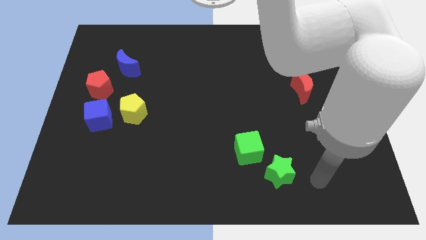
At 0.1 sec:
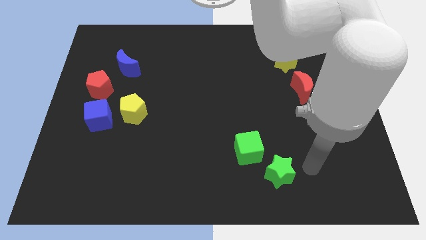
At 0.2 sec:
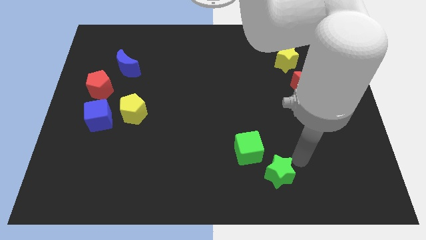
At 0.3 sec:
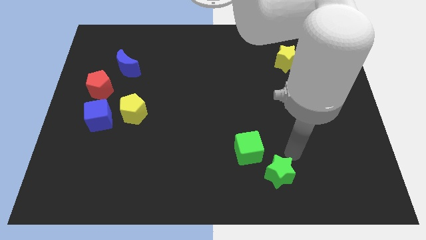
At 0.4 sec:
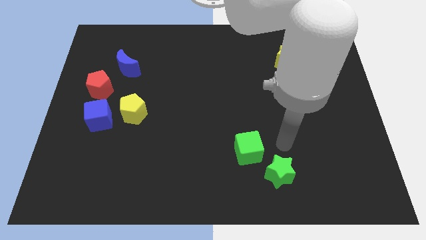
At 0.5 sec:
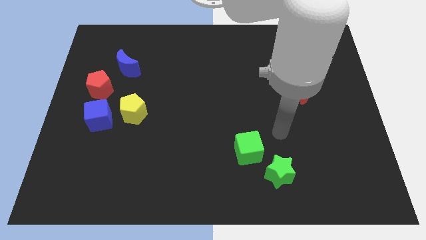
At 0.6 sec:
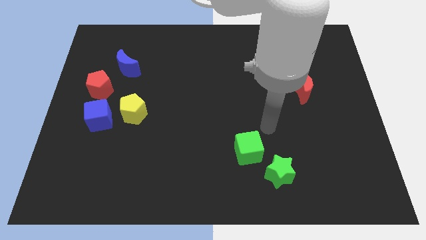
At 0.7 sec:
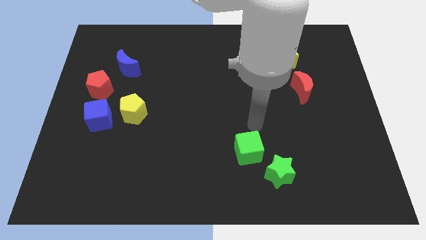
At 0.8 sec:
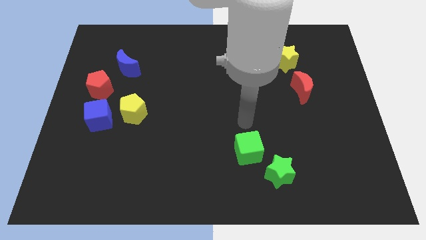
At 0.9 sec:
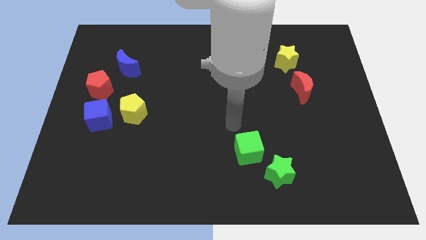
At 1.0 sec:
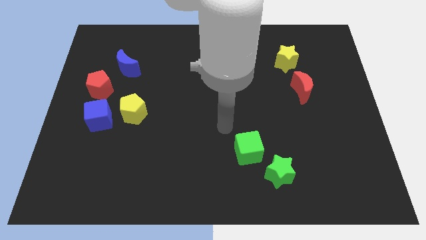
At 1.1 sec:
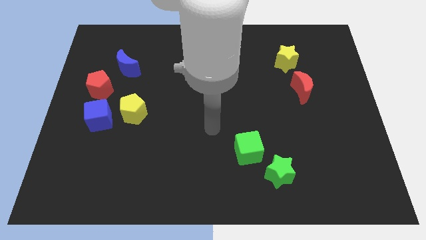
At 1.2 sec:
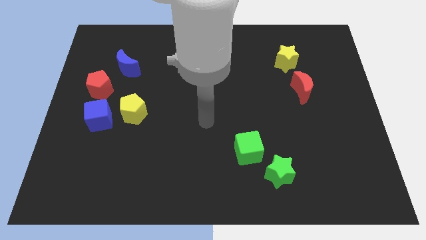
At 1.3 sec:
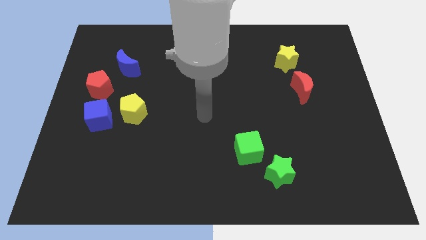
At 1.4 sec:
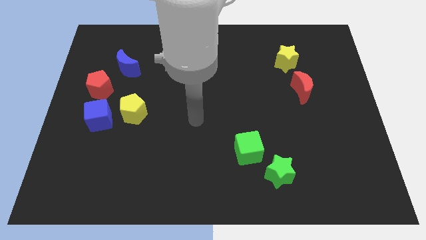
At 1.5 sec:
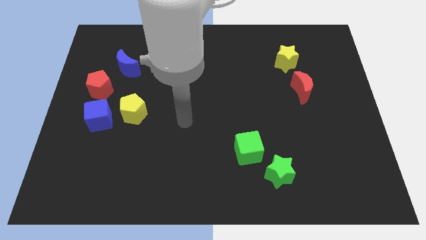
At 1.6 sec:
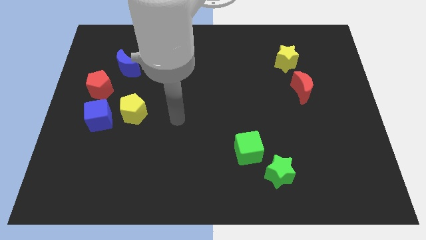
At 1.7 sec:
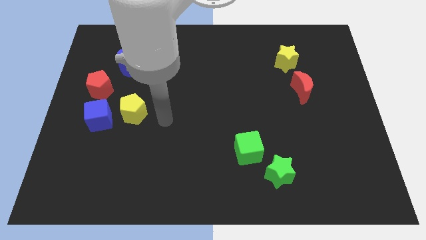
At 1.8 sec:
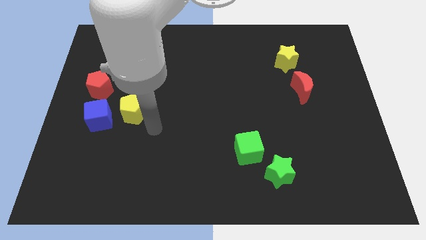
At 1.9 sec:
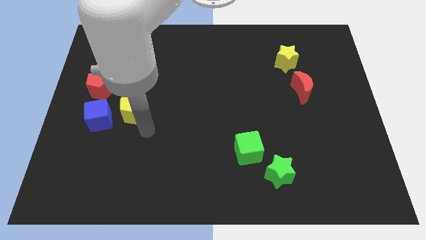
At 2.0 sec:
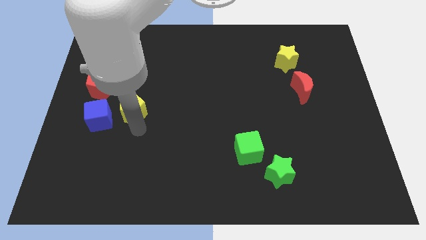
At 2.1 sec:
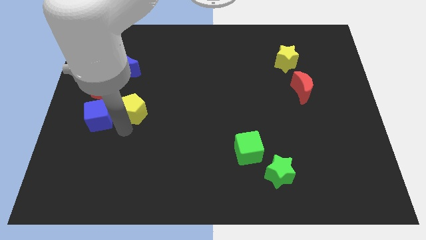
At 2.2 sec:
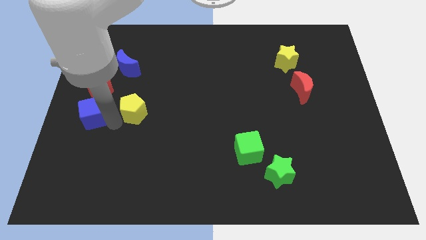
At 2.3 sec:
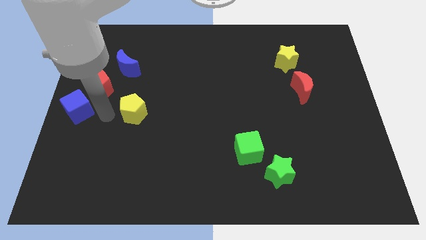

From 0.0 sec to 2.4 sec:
move the yellow pentagon away from the blue cube

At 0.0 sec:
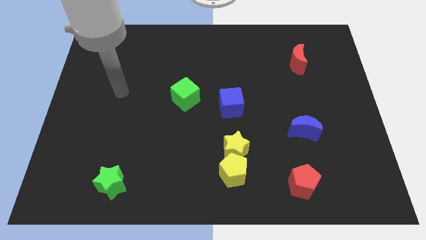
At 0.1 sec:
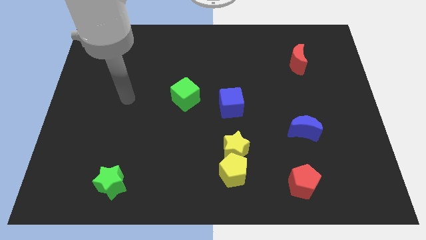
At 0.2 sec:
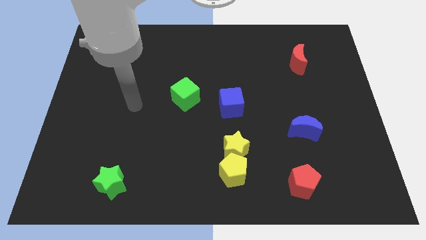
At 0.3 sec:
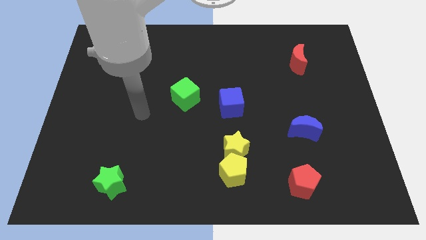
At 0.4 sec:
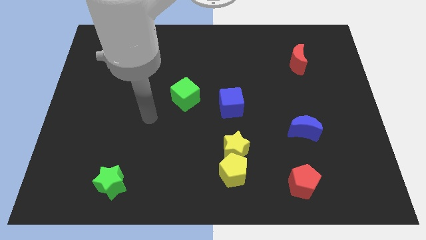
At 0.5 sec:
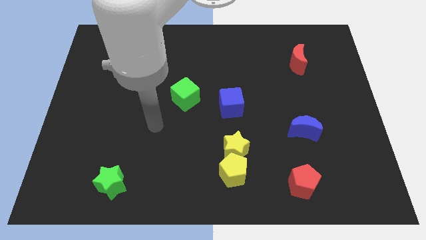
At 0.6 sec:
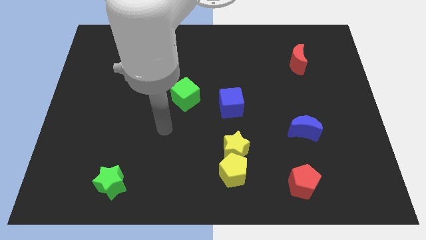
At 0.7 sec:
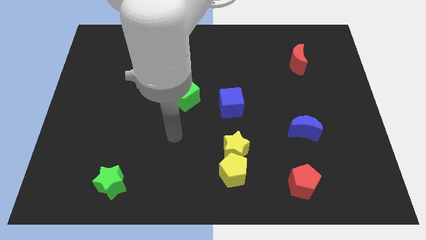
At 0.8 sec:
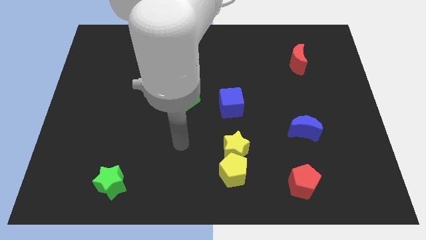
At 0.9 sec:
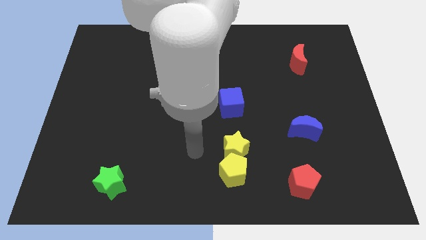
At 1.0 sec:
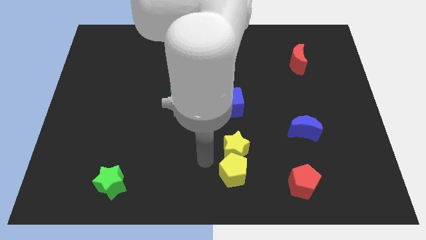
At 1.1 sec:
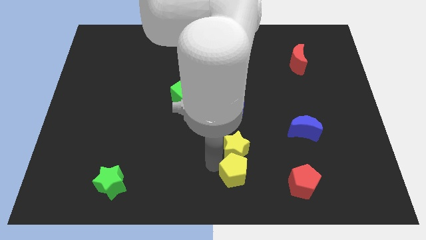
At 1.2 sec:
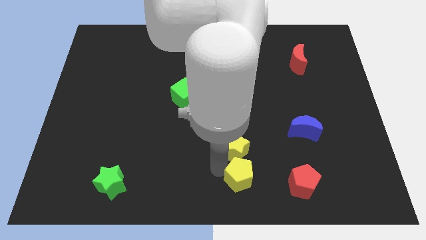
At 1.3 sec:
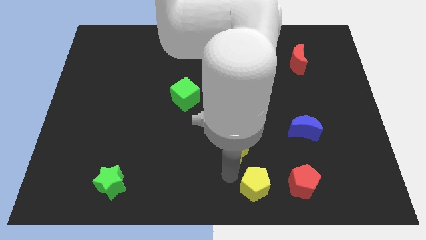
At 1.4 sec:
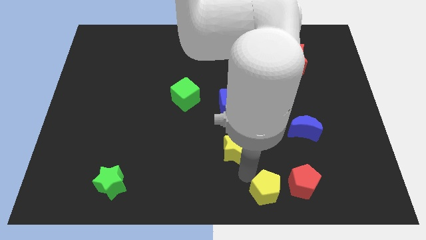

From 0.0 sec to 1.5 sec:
pull the yellow star apart from the yellow pentagon

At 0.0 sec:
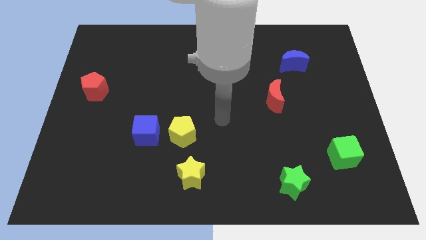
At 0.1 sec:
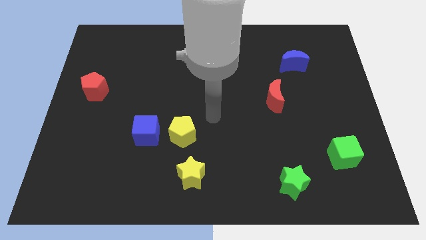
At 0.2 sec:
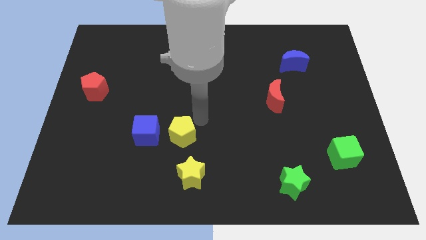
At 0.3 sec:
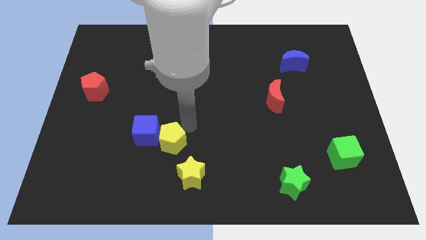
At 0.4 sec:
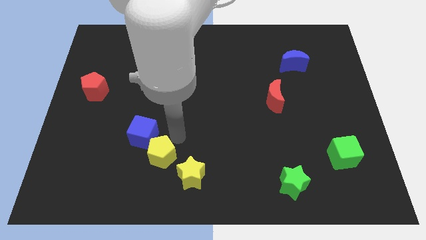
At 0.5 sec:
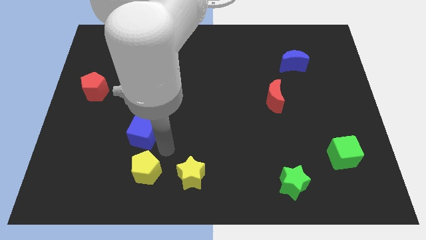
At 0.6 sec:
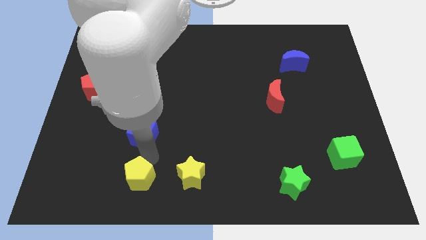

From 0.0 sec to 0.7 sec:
move the blue cube away from the yellow pentagon

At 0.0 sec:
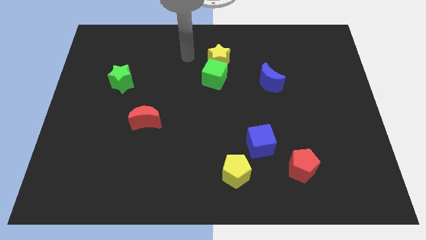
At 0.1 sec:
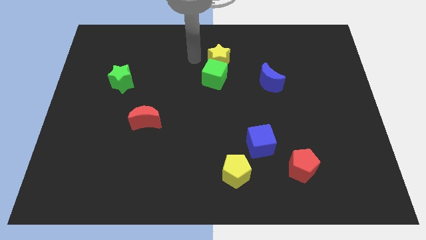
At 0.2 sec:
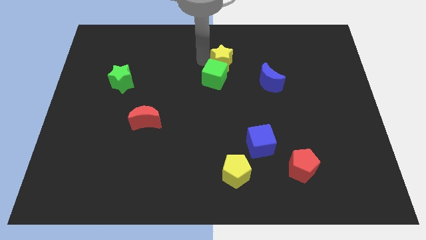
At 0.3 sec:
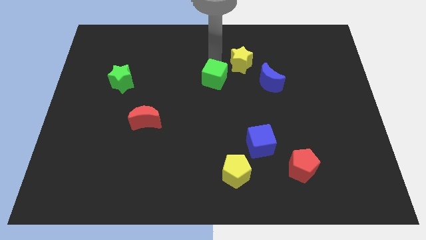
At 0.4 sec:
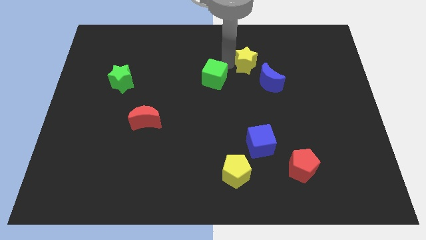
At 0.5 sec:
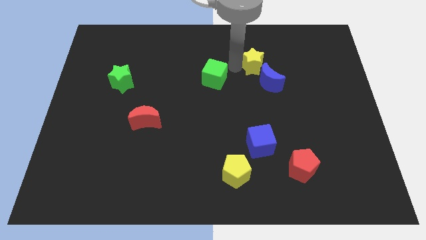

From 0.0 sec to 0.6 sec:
separate the green cube from the yellow star

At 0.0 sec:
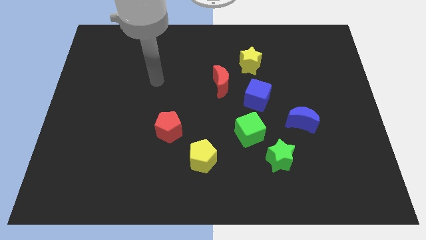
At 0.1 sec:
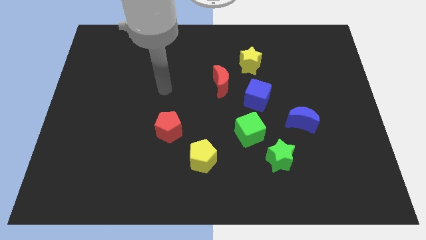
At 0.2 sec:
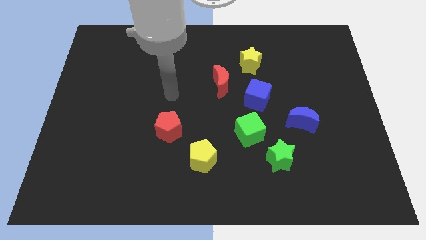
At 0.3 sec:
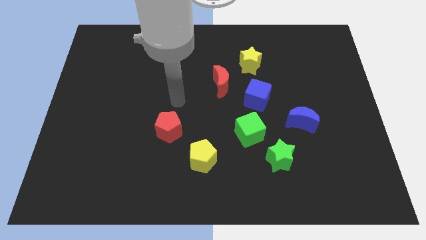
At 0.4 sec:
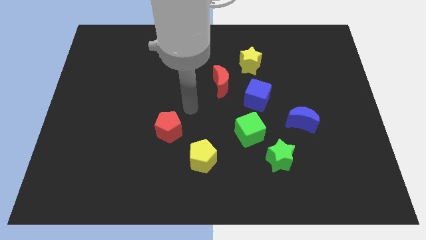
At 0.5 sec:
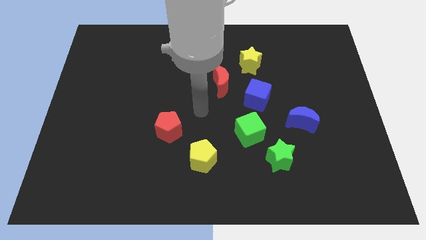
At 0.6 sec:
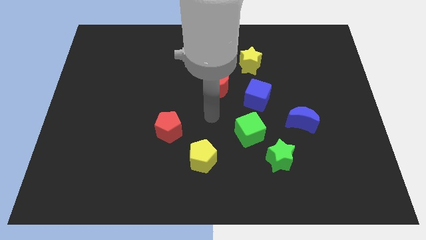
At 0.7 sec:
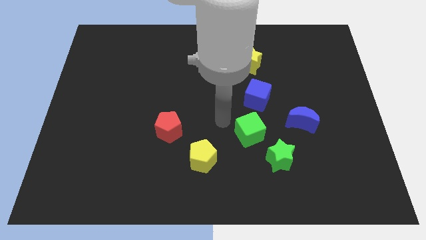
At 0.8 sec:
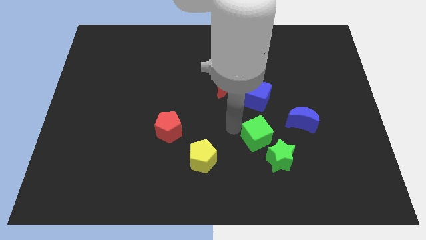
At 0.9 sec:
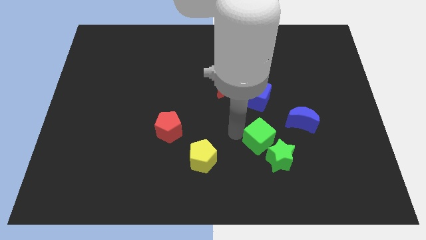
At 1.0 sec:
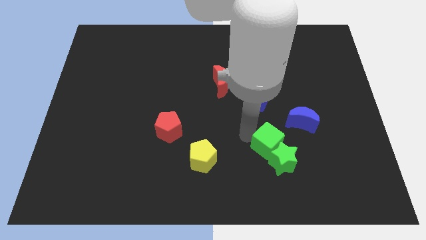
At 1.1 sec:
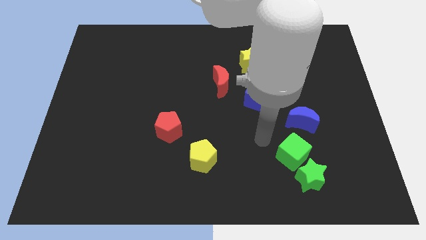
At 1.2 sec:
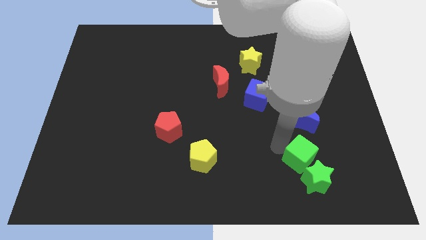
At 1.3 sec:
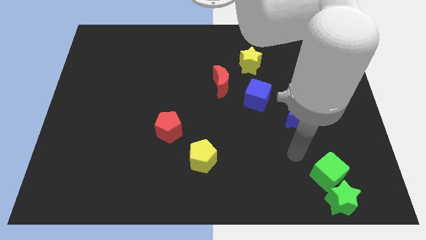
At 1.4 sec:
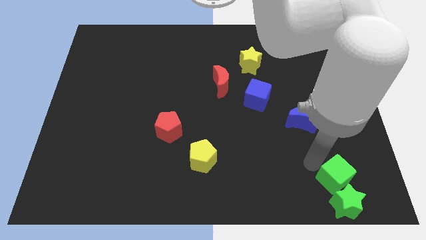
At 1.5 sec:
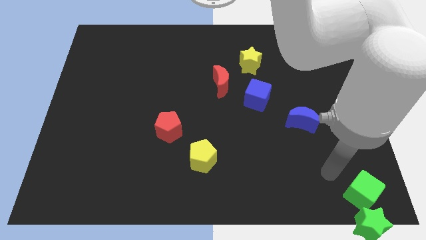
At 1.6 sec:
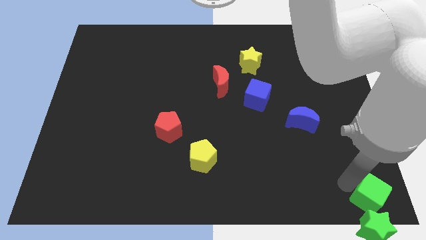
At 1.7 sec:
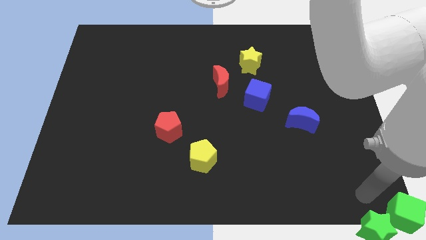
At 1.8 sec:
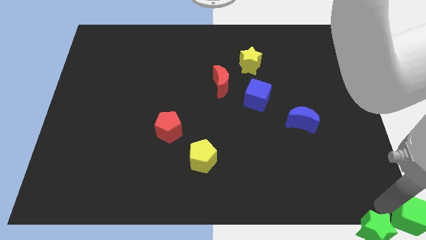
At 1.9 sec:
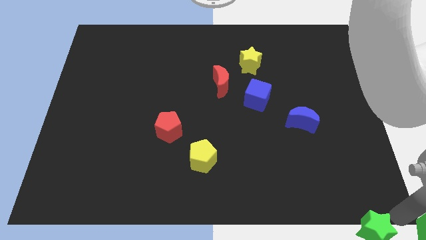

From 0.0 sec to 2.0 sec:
separate the green star from the green cube

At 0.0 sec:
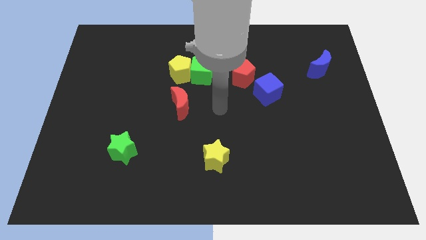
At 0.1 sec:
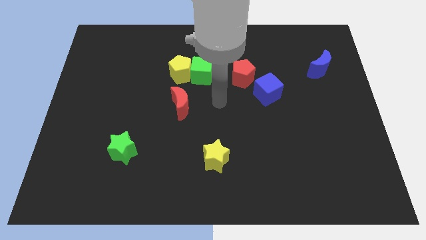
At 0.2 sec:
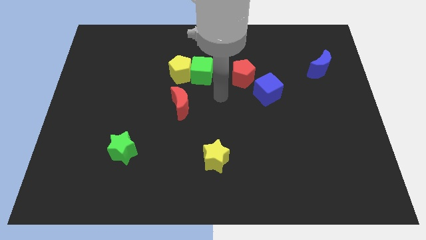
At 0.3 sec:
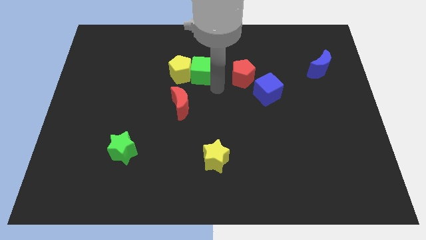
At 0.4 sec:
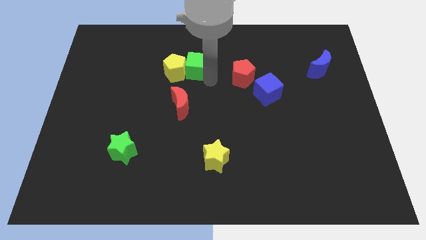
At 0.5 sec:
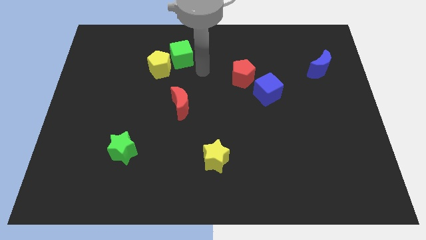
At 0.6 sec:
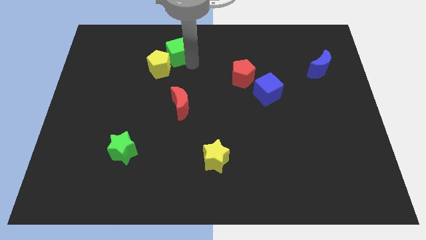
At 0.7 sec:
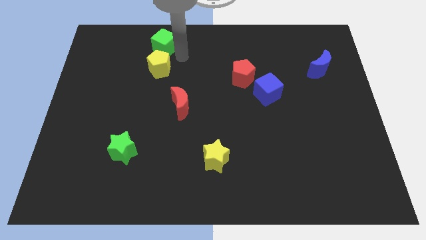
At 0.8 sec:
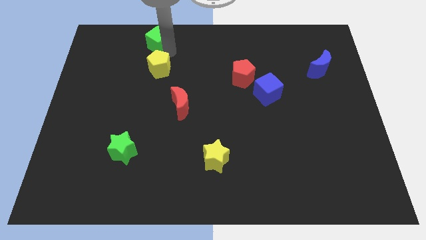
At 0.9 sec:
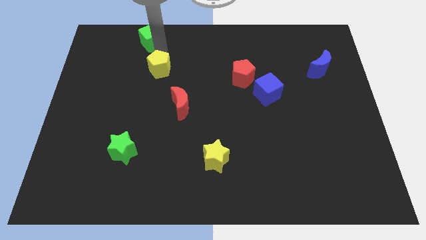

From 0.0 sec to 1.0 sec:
move the yellow pentagon away from the green cube

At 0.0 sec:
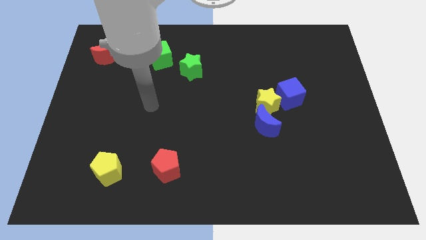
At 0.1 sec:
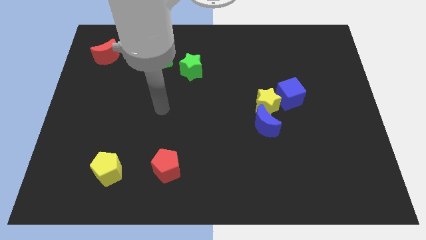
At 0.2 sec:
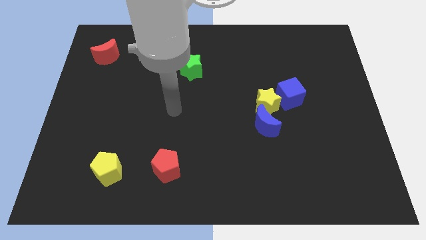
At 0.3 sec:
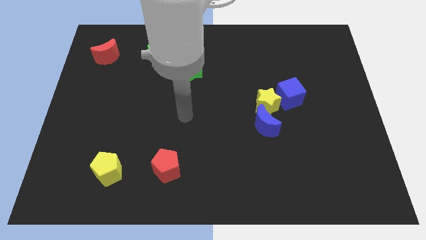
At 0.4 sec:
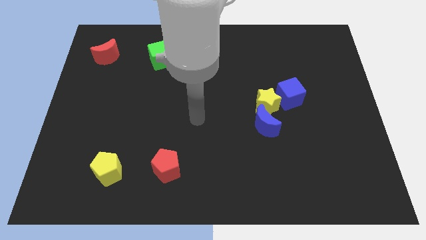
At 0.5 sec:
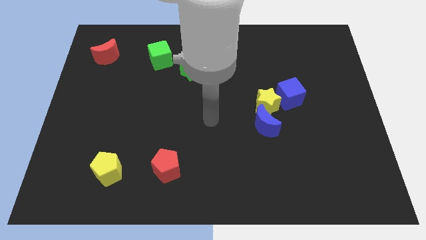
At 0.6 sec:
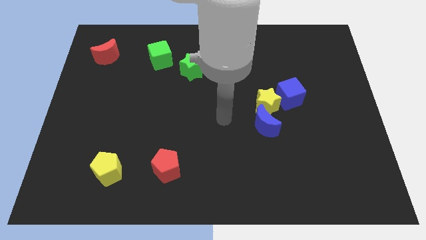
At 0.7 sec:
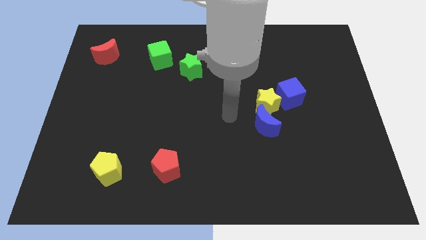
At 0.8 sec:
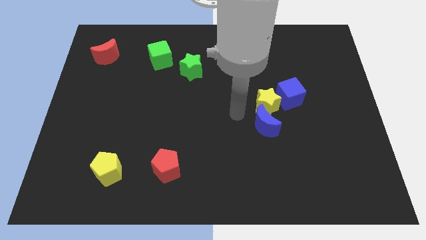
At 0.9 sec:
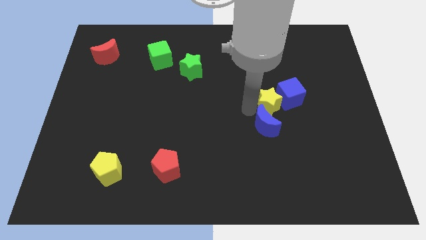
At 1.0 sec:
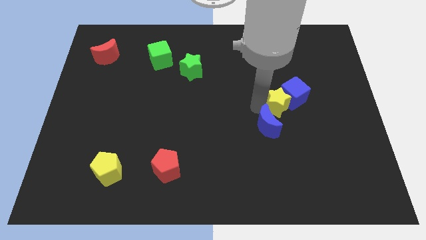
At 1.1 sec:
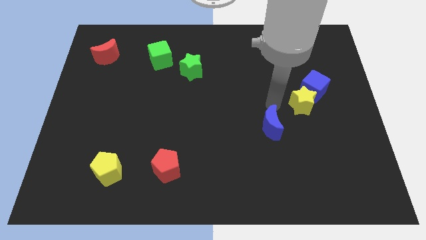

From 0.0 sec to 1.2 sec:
move the blue moon away from the yellow star
